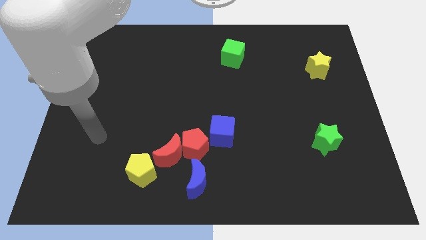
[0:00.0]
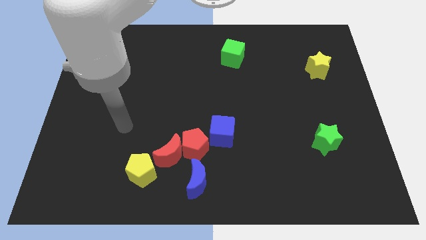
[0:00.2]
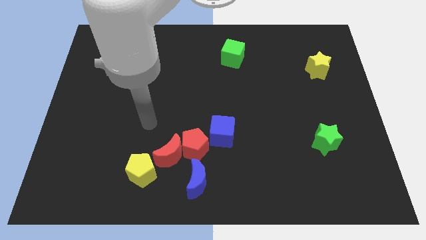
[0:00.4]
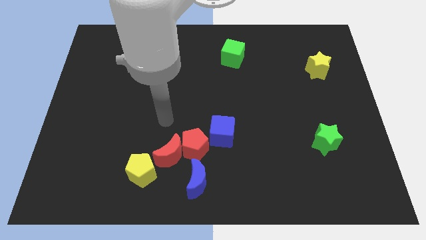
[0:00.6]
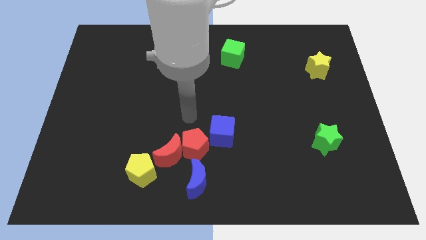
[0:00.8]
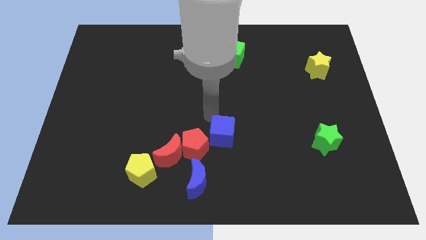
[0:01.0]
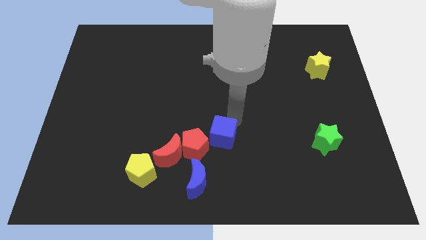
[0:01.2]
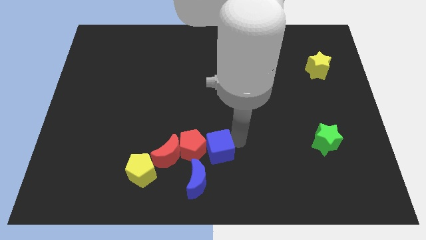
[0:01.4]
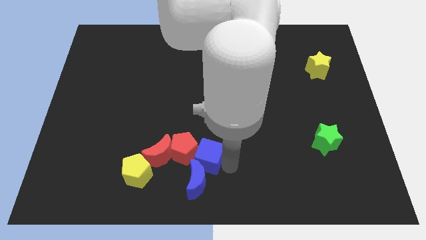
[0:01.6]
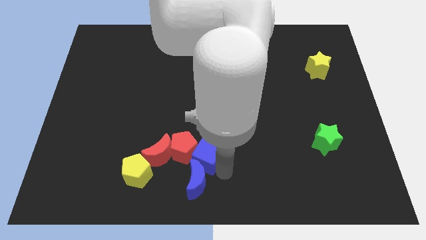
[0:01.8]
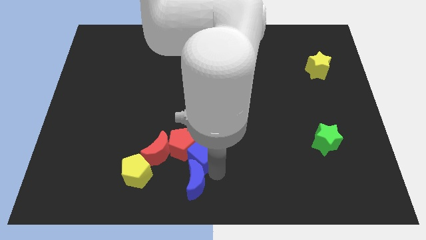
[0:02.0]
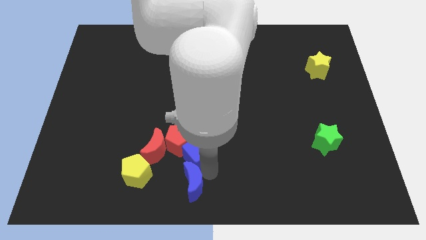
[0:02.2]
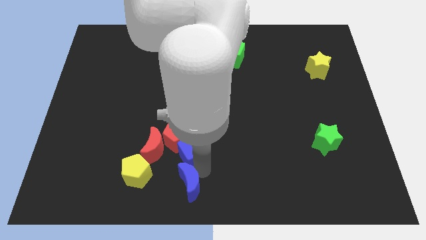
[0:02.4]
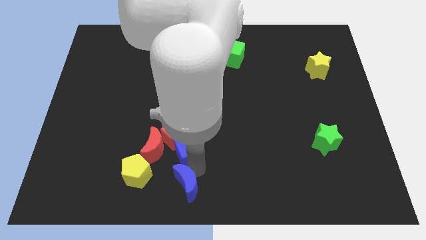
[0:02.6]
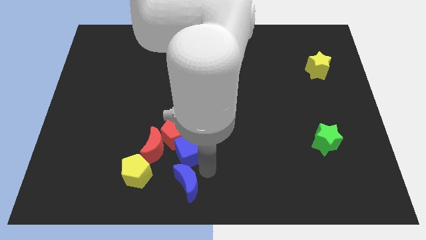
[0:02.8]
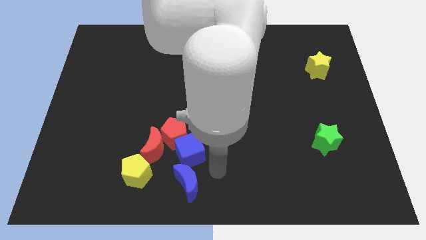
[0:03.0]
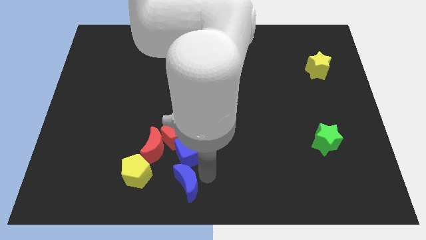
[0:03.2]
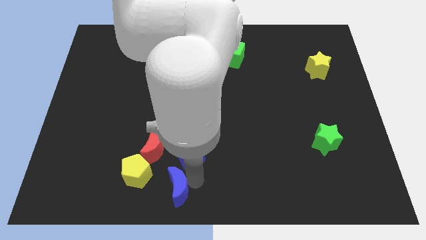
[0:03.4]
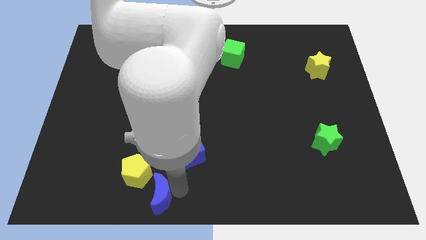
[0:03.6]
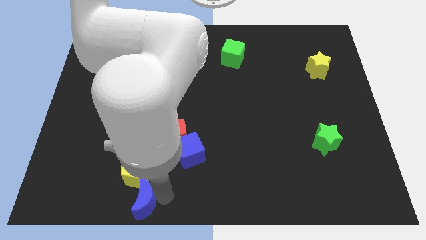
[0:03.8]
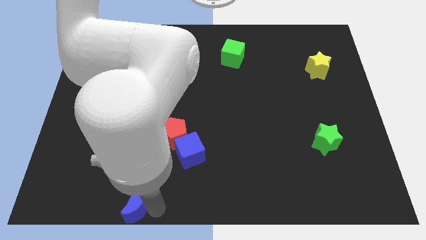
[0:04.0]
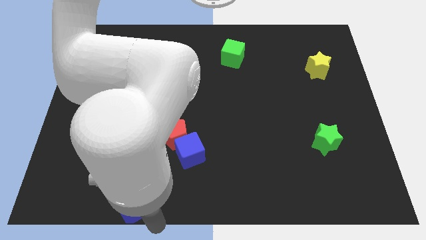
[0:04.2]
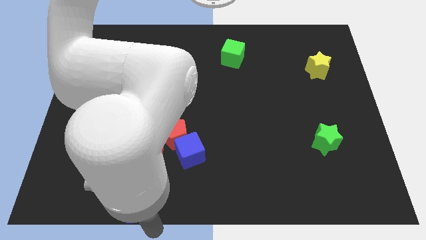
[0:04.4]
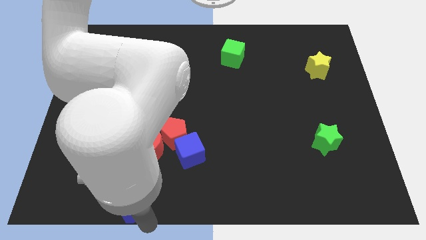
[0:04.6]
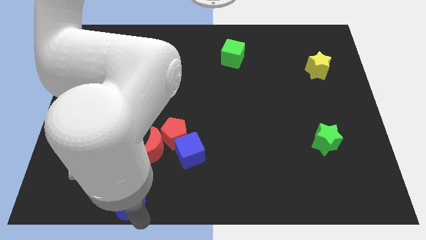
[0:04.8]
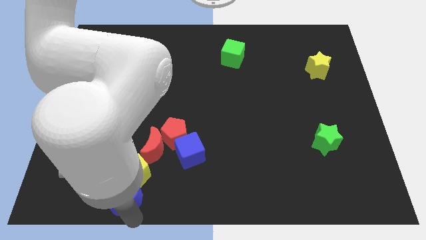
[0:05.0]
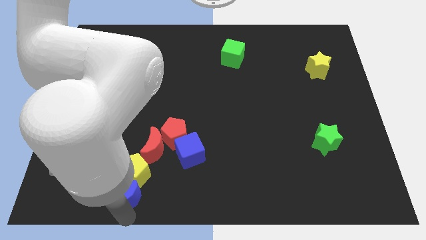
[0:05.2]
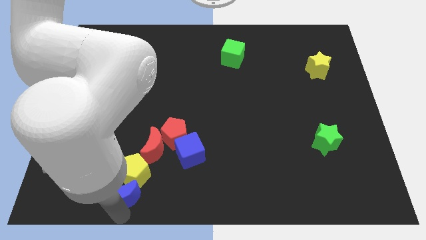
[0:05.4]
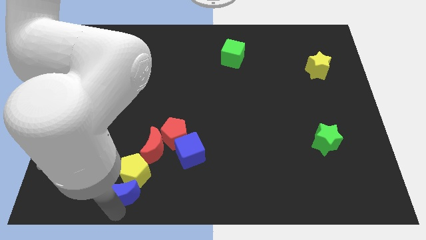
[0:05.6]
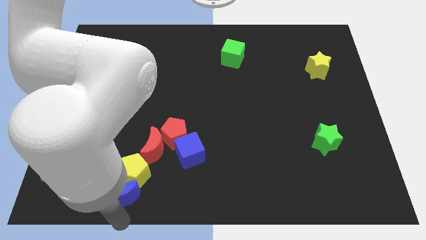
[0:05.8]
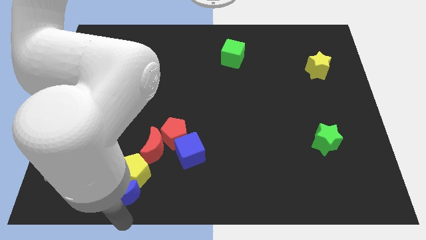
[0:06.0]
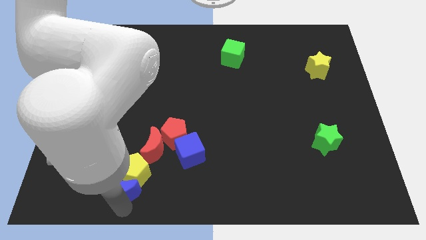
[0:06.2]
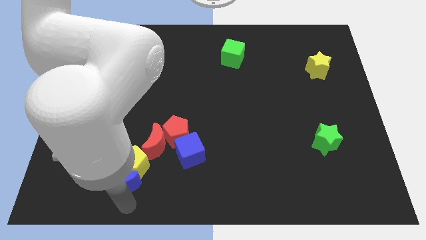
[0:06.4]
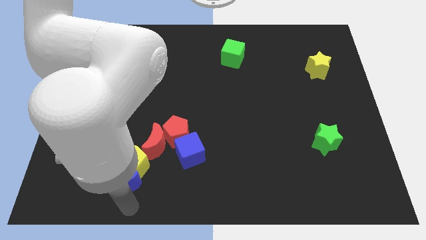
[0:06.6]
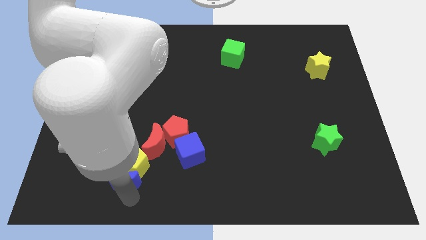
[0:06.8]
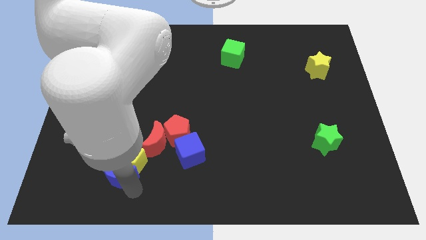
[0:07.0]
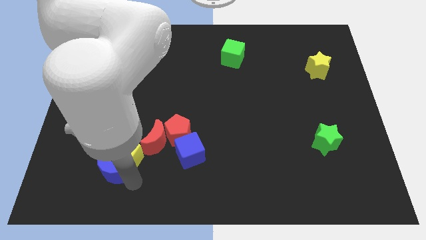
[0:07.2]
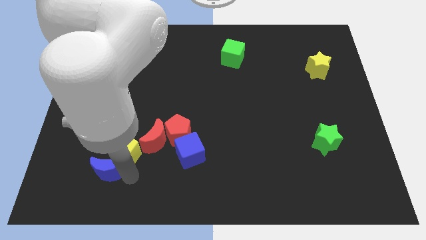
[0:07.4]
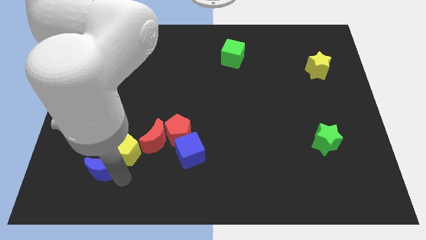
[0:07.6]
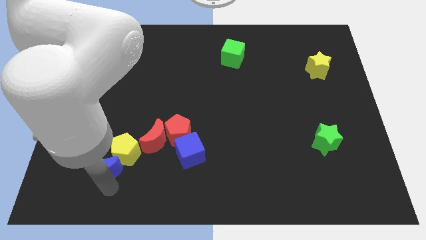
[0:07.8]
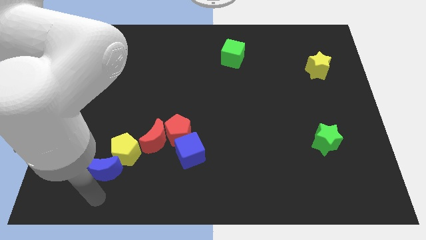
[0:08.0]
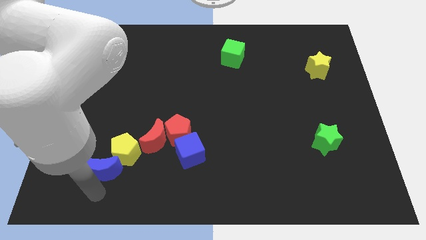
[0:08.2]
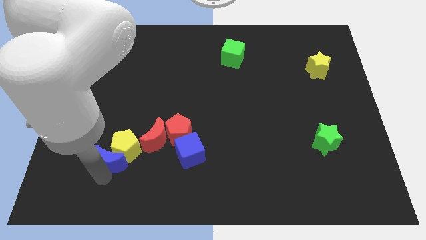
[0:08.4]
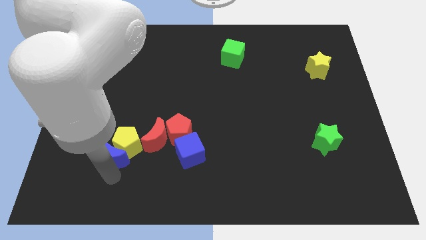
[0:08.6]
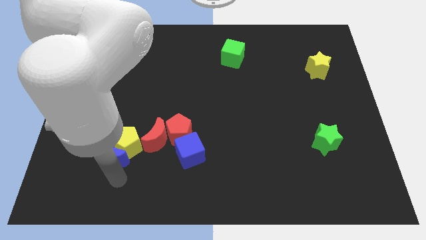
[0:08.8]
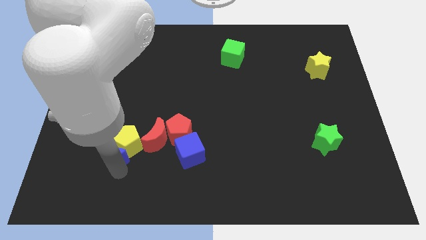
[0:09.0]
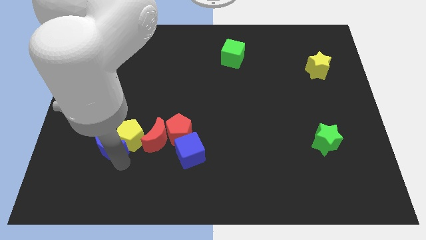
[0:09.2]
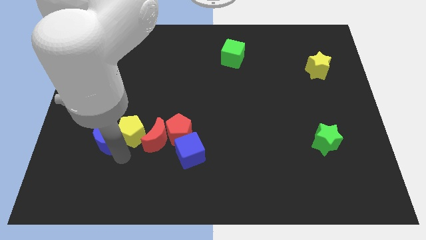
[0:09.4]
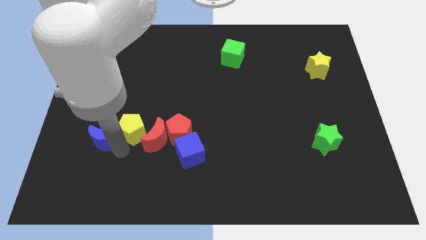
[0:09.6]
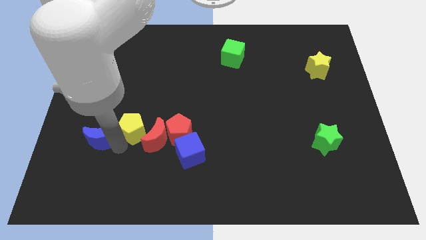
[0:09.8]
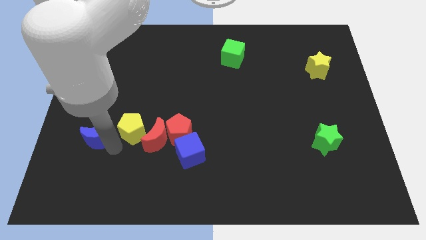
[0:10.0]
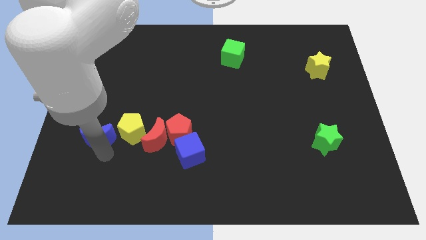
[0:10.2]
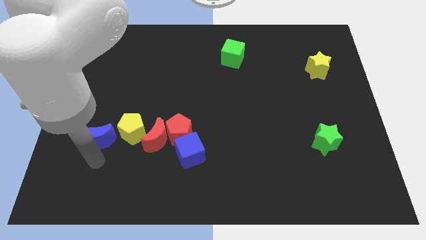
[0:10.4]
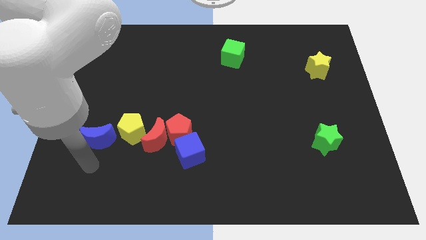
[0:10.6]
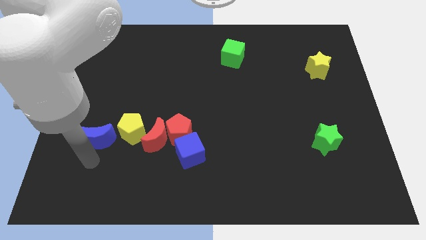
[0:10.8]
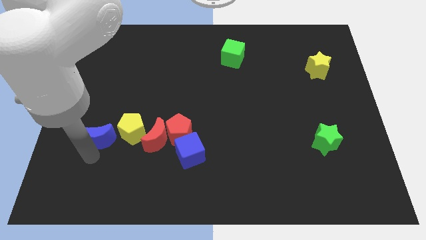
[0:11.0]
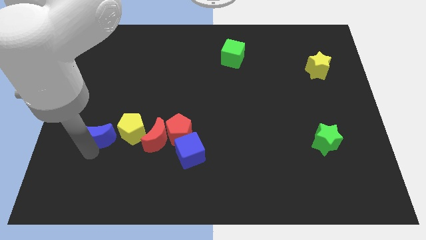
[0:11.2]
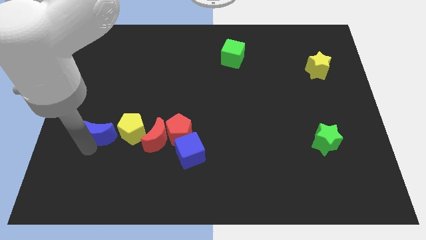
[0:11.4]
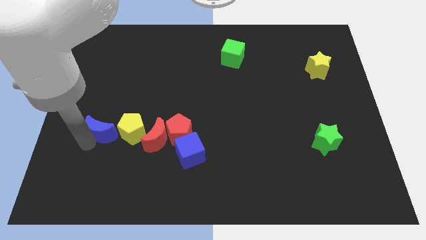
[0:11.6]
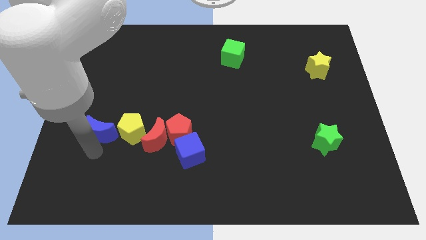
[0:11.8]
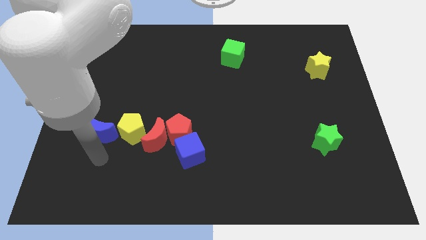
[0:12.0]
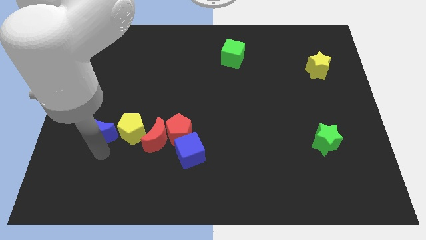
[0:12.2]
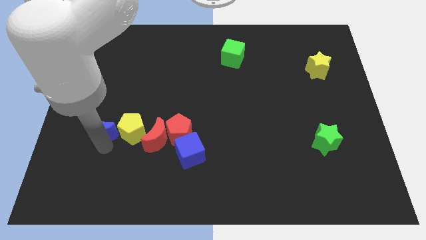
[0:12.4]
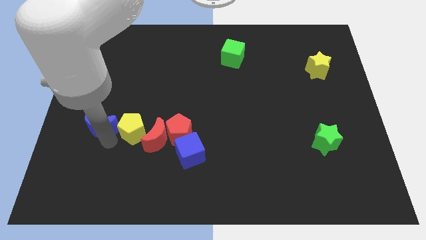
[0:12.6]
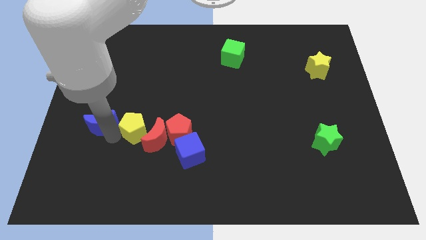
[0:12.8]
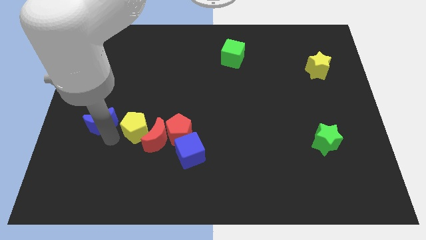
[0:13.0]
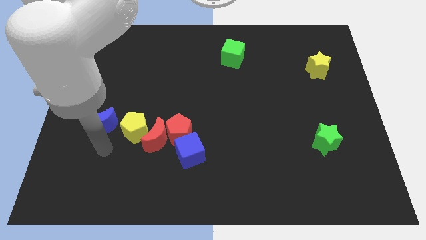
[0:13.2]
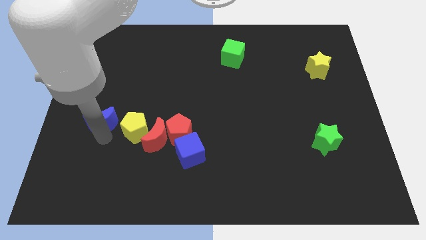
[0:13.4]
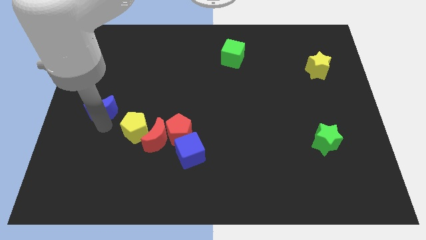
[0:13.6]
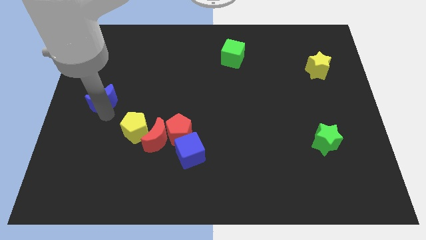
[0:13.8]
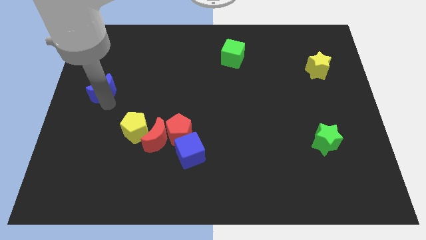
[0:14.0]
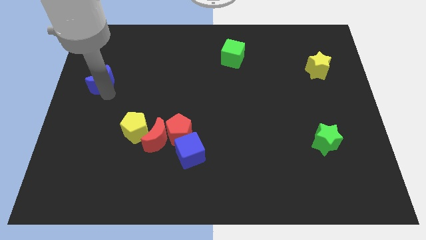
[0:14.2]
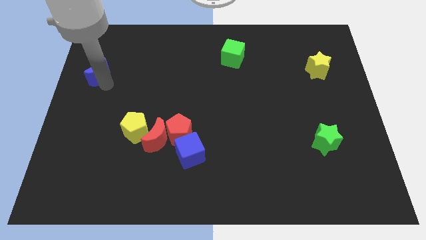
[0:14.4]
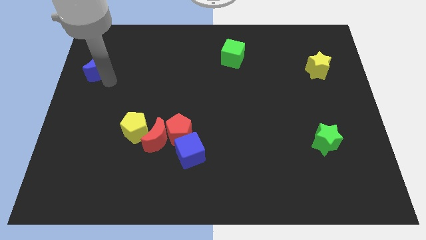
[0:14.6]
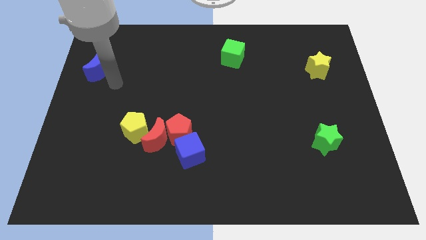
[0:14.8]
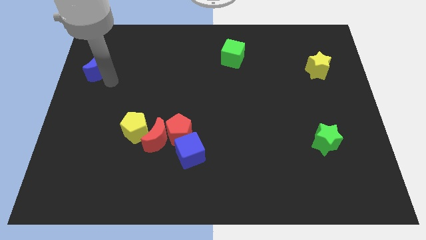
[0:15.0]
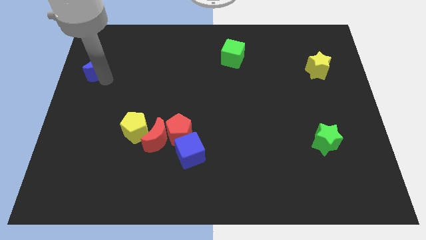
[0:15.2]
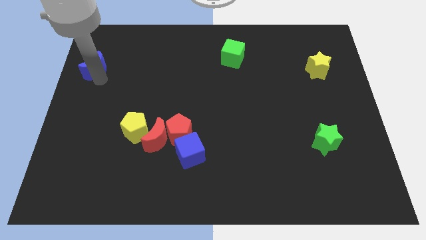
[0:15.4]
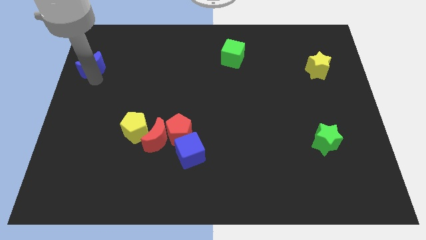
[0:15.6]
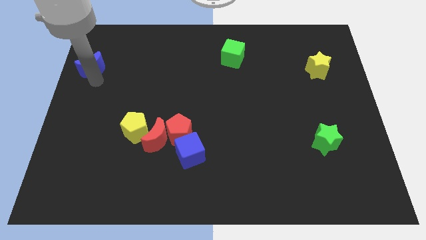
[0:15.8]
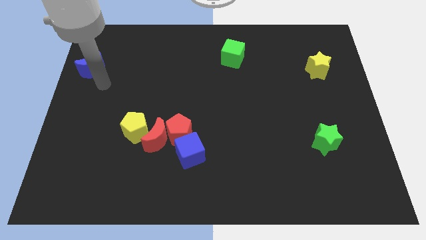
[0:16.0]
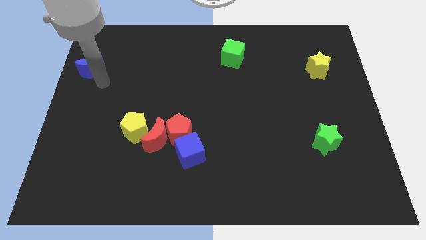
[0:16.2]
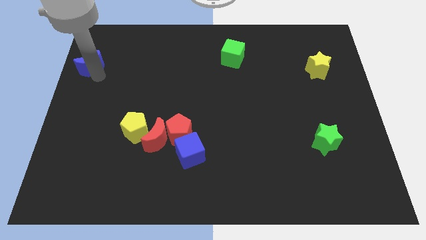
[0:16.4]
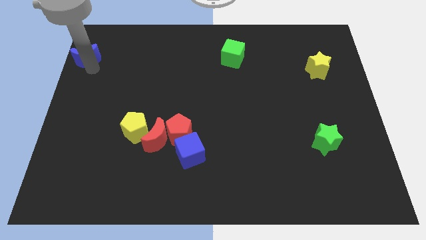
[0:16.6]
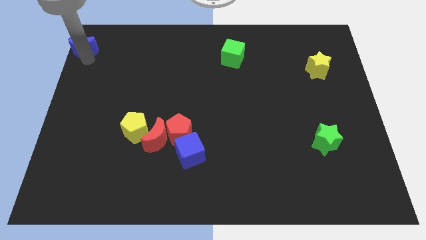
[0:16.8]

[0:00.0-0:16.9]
slide the blue moon to the upper left corner
